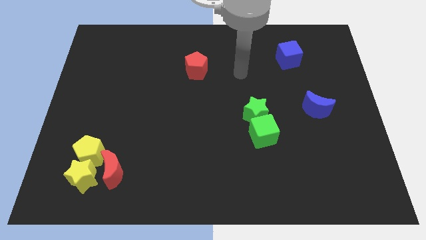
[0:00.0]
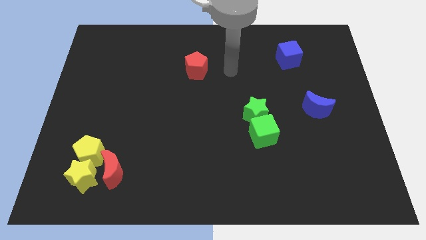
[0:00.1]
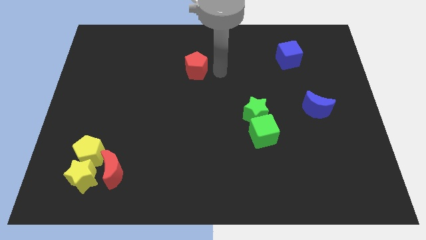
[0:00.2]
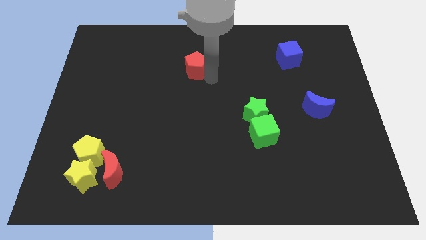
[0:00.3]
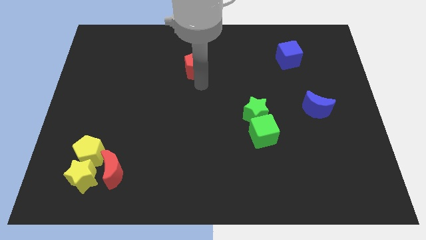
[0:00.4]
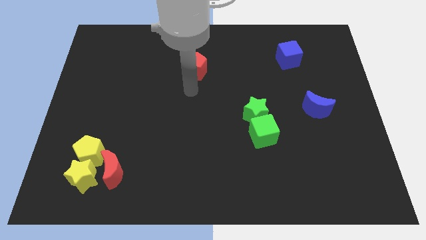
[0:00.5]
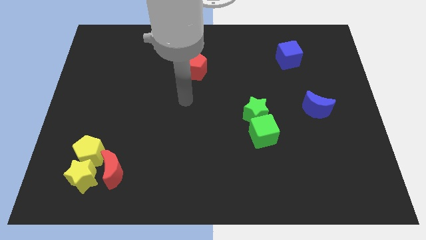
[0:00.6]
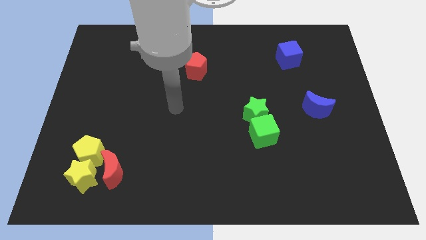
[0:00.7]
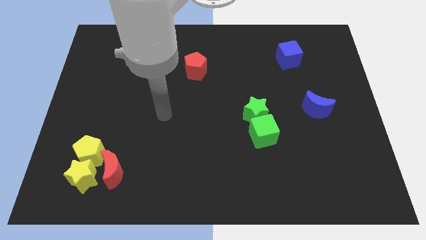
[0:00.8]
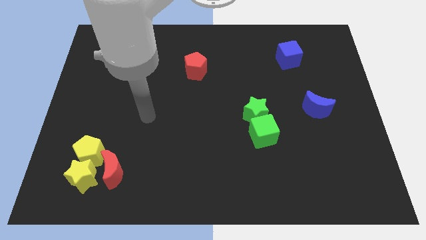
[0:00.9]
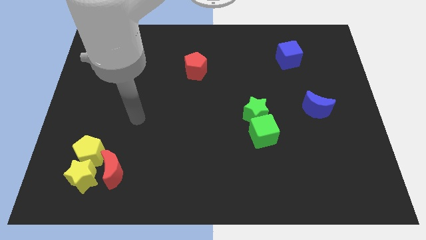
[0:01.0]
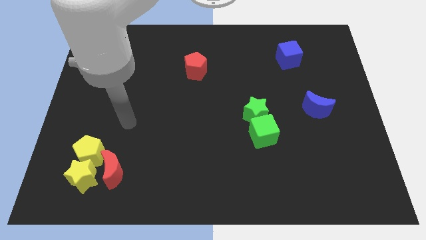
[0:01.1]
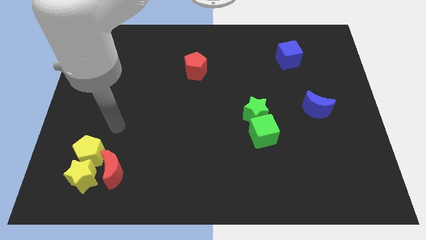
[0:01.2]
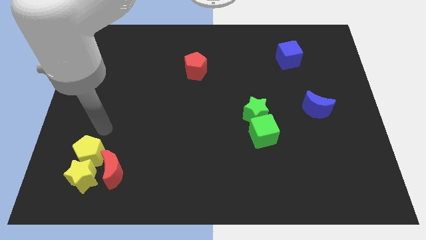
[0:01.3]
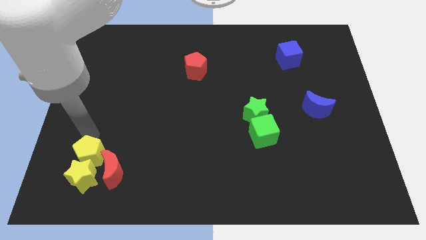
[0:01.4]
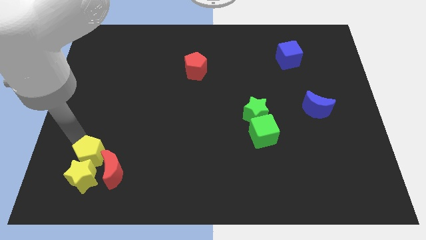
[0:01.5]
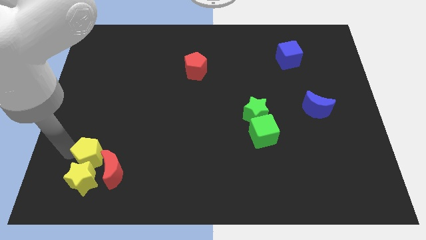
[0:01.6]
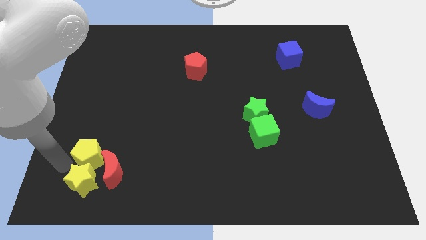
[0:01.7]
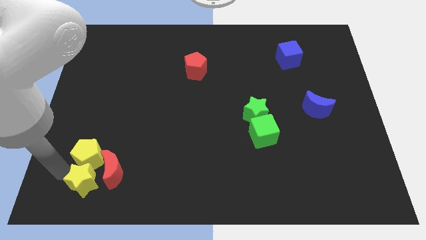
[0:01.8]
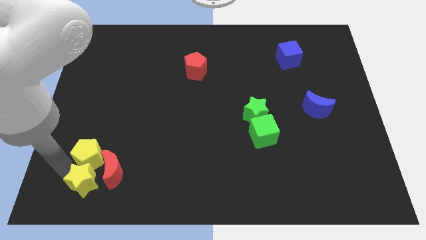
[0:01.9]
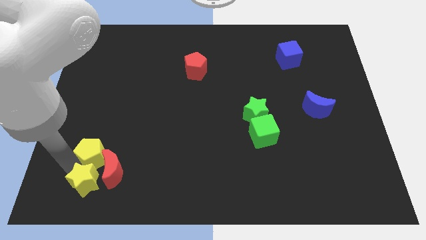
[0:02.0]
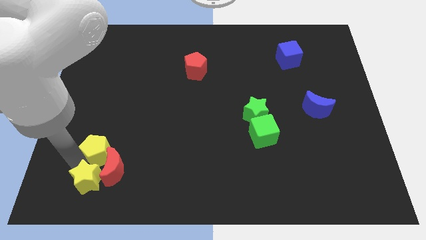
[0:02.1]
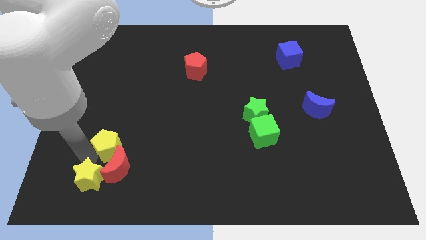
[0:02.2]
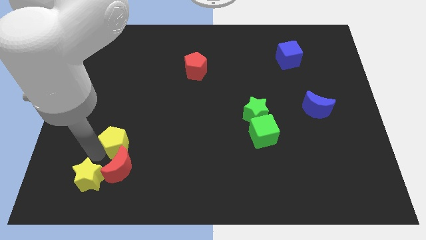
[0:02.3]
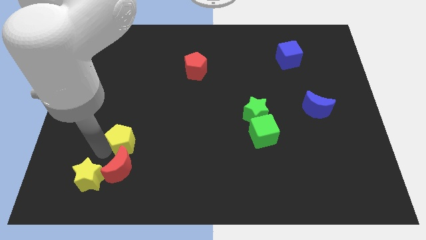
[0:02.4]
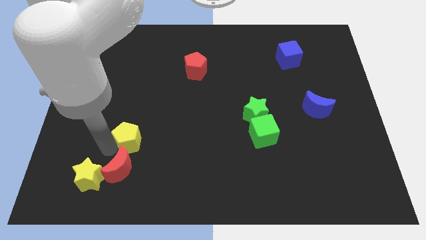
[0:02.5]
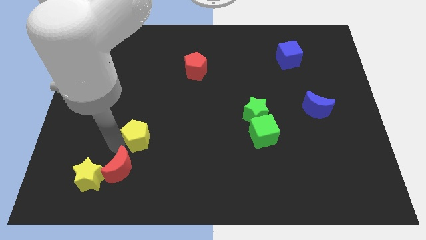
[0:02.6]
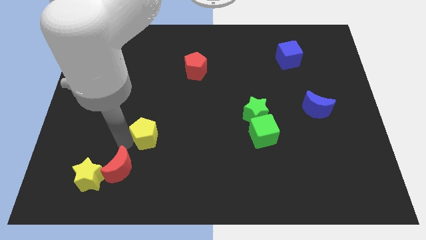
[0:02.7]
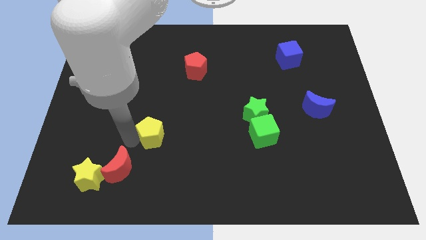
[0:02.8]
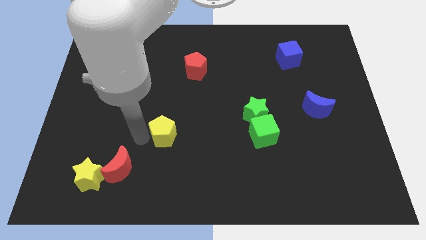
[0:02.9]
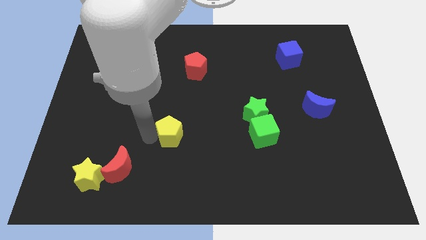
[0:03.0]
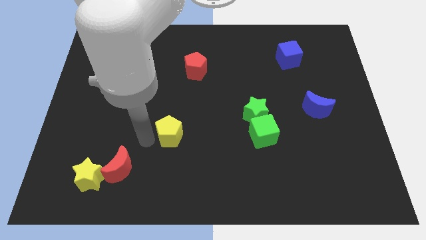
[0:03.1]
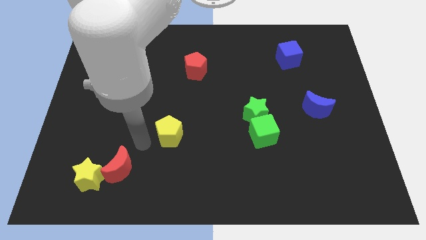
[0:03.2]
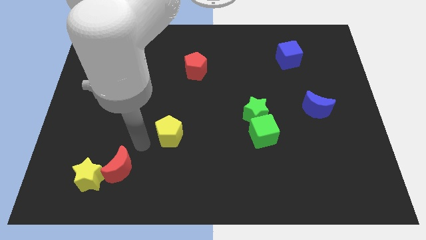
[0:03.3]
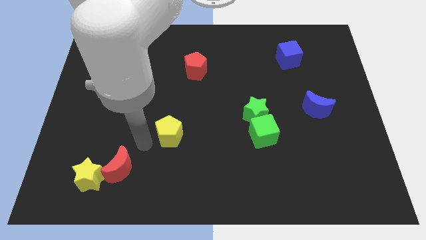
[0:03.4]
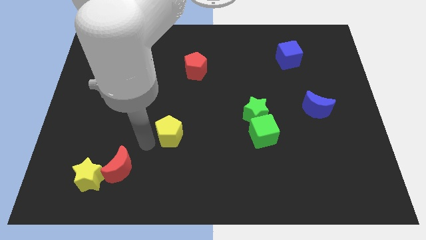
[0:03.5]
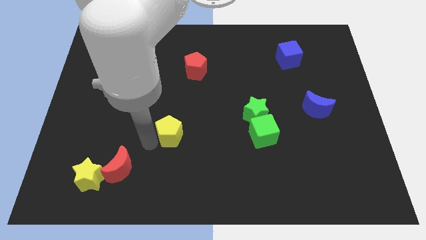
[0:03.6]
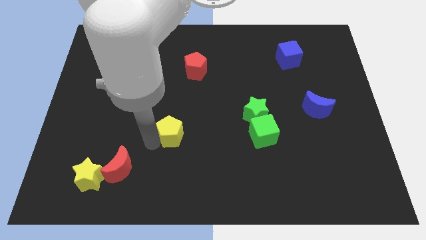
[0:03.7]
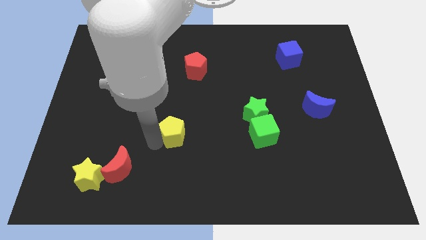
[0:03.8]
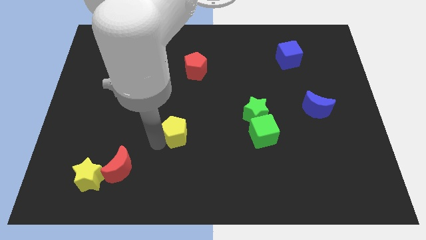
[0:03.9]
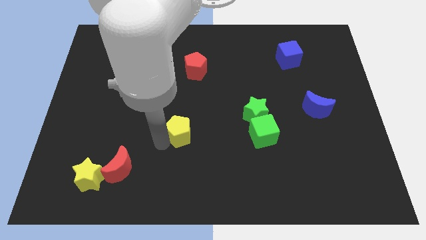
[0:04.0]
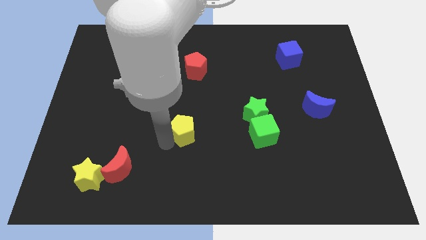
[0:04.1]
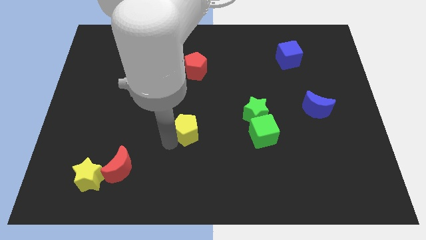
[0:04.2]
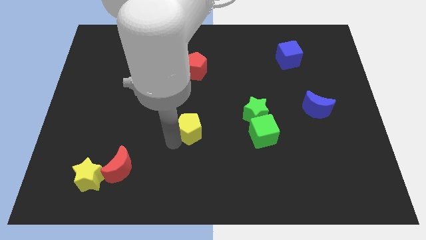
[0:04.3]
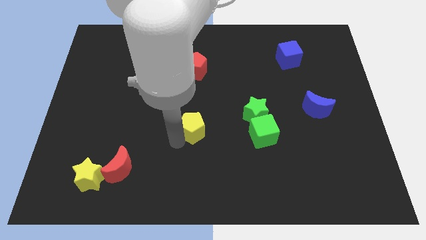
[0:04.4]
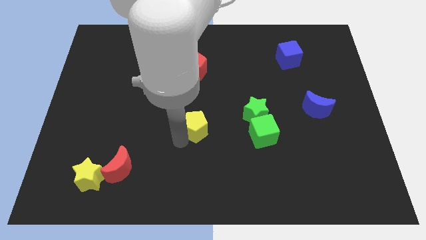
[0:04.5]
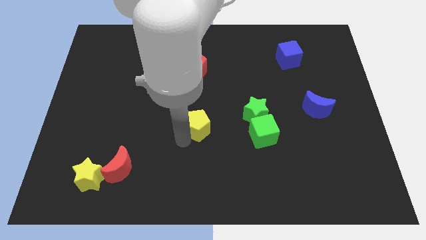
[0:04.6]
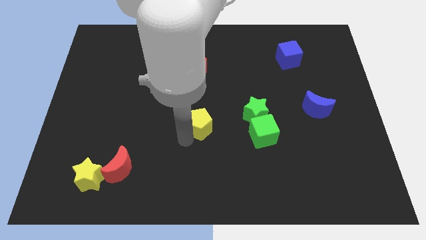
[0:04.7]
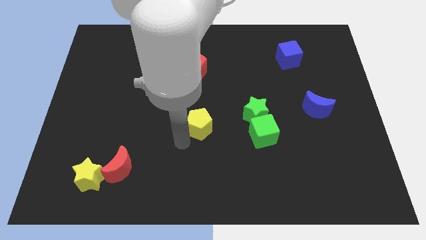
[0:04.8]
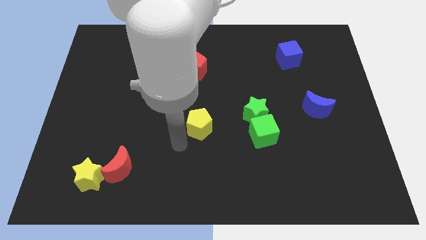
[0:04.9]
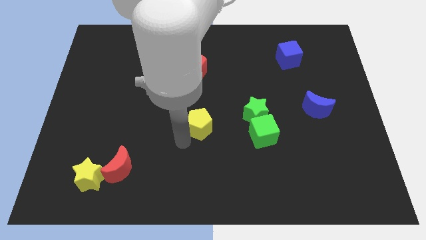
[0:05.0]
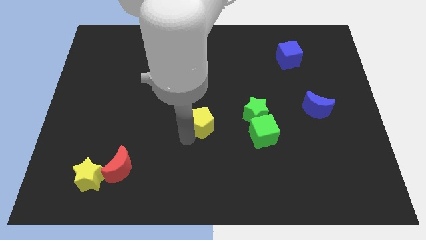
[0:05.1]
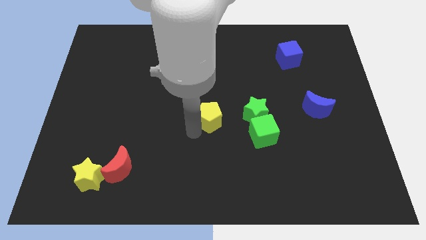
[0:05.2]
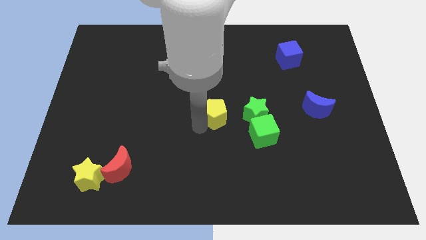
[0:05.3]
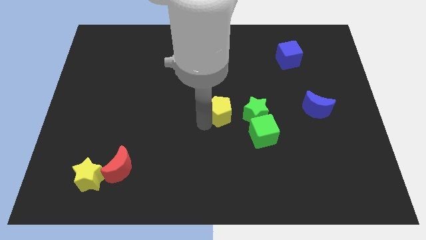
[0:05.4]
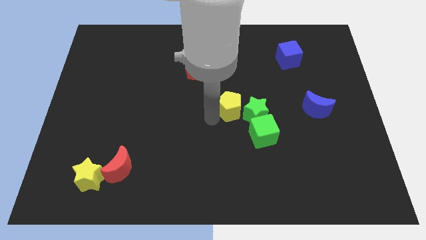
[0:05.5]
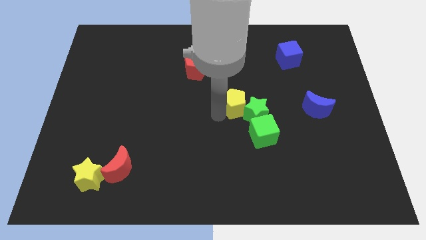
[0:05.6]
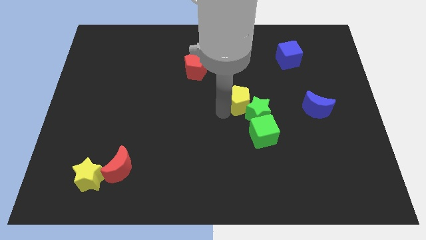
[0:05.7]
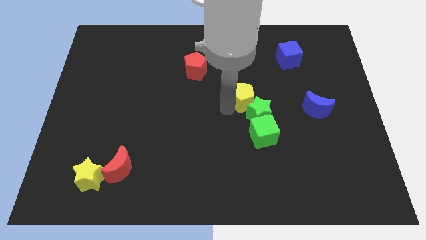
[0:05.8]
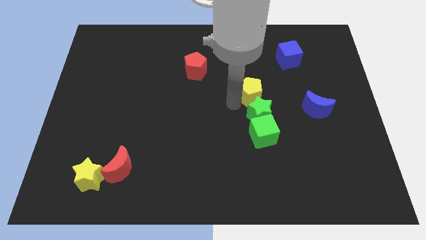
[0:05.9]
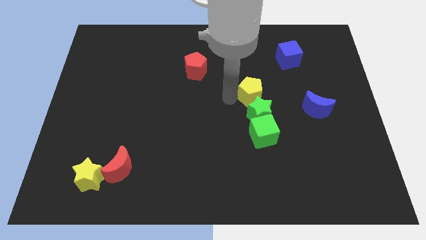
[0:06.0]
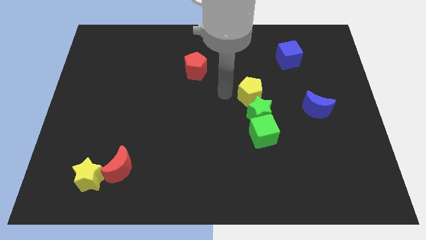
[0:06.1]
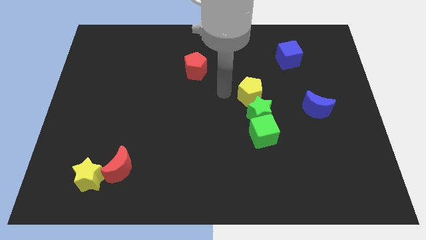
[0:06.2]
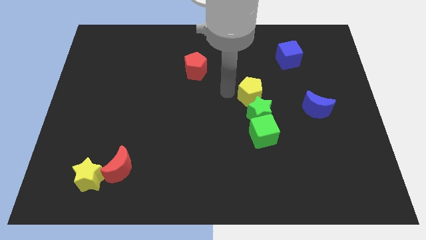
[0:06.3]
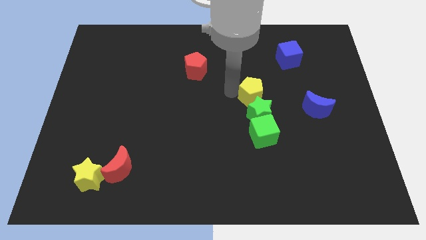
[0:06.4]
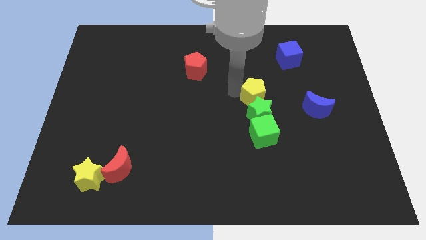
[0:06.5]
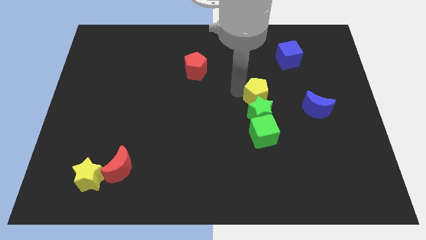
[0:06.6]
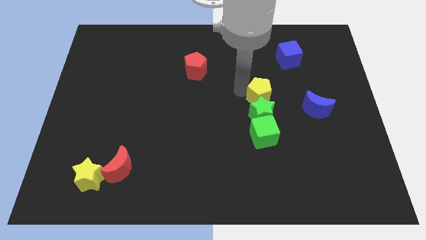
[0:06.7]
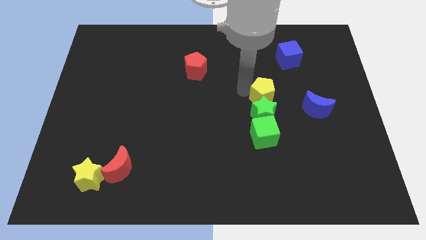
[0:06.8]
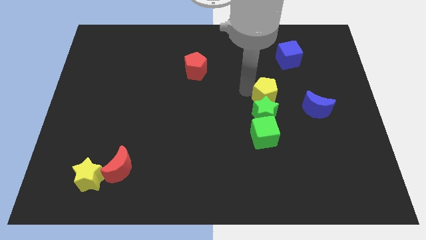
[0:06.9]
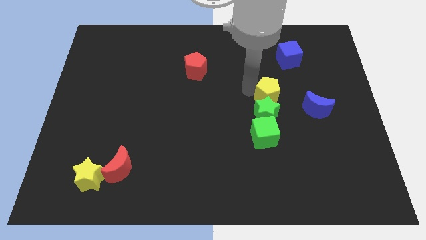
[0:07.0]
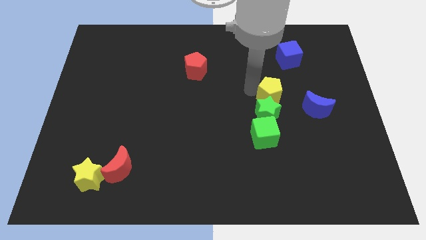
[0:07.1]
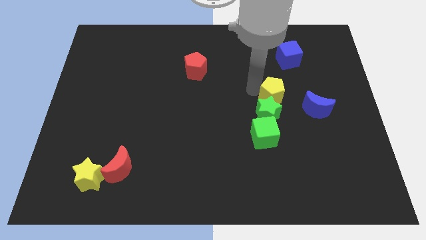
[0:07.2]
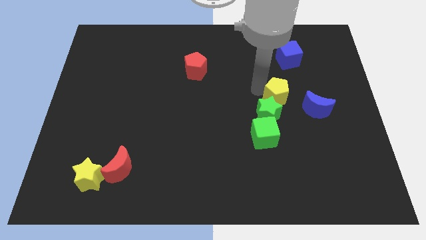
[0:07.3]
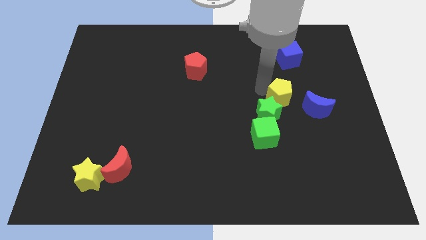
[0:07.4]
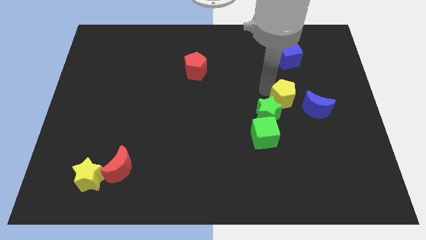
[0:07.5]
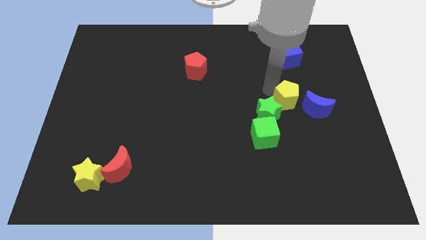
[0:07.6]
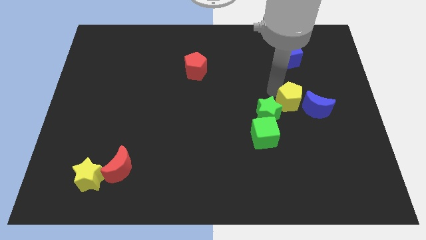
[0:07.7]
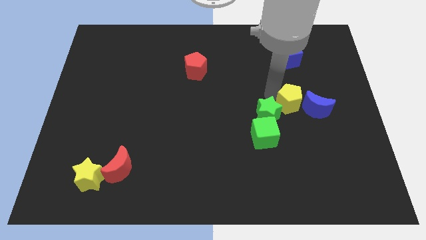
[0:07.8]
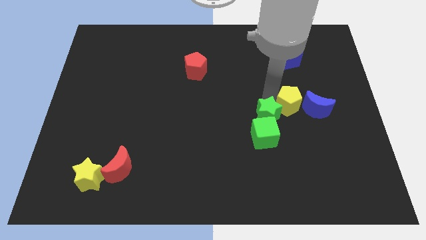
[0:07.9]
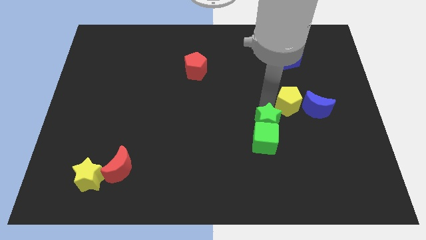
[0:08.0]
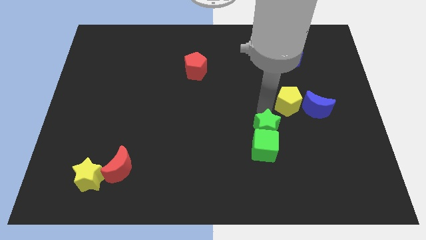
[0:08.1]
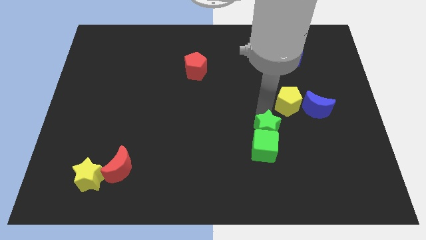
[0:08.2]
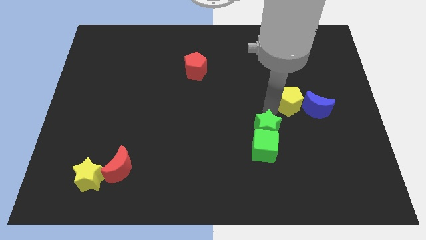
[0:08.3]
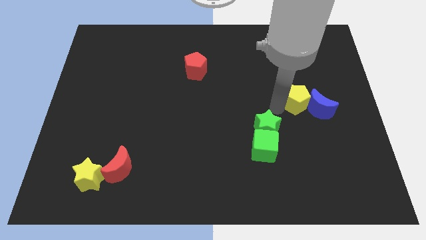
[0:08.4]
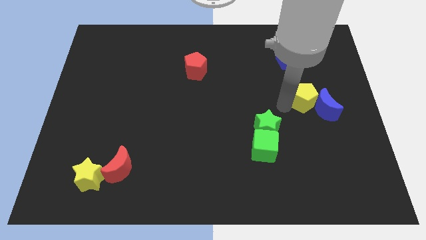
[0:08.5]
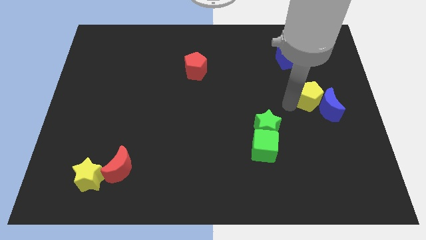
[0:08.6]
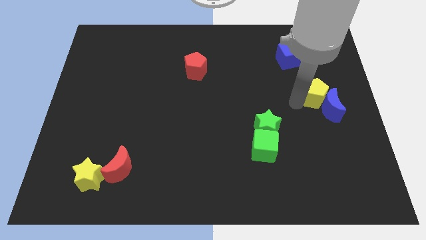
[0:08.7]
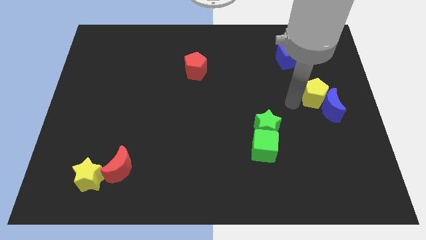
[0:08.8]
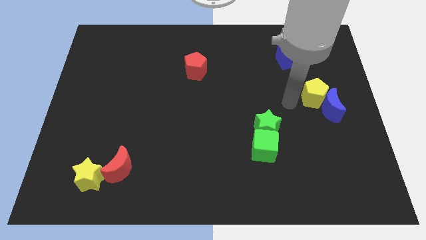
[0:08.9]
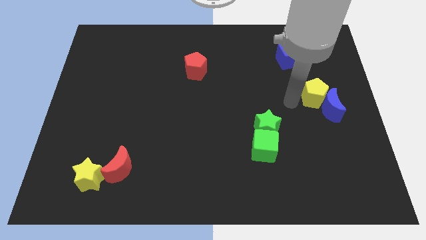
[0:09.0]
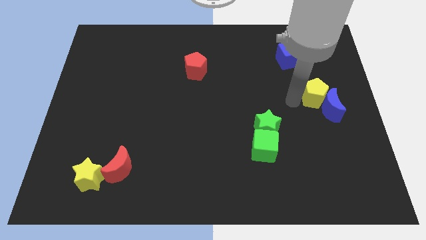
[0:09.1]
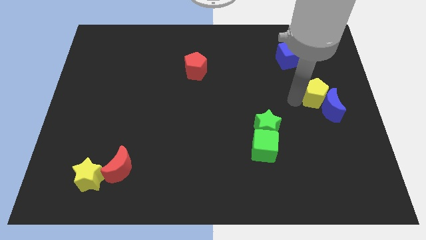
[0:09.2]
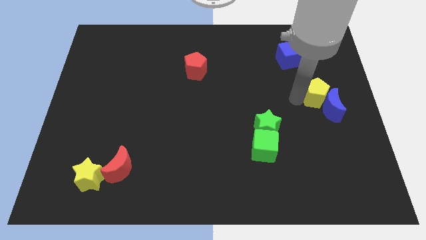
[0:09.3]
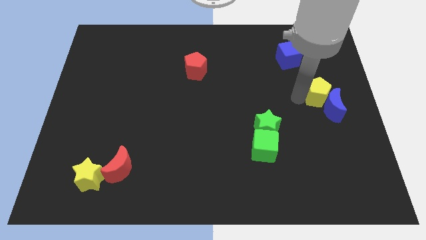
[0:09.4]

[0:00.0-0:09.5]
put the yellow pentagon to the right side of the board
